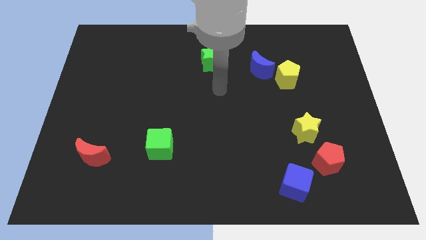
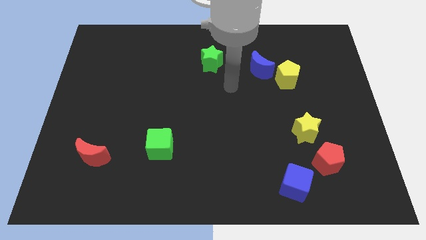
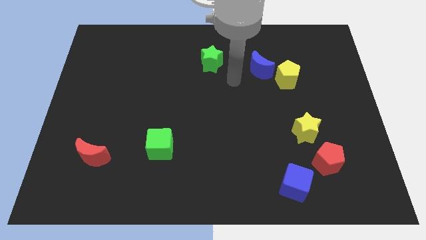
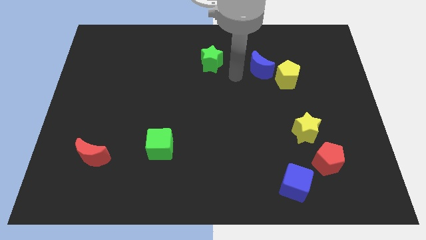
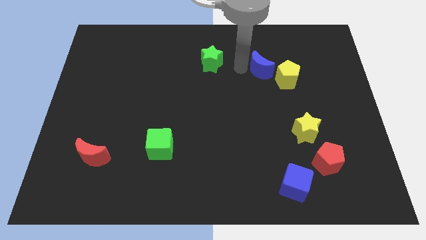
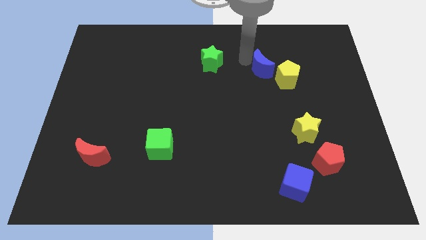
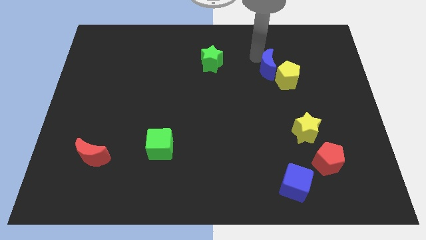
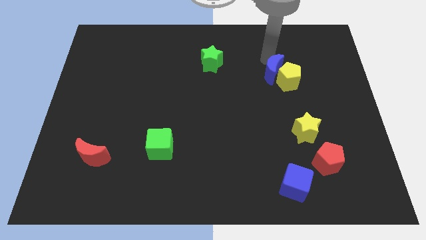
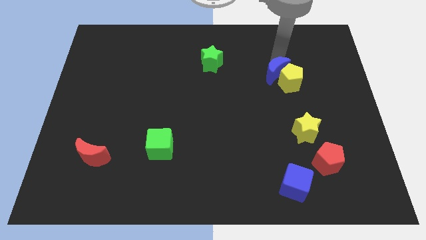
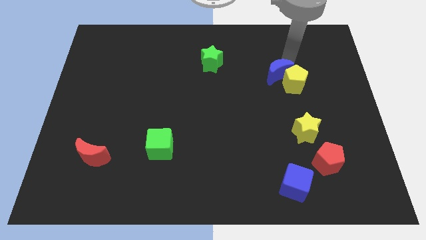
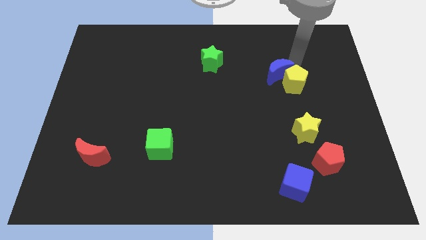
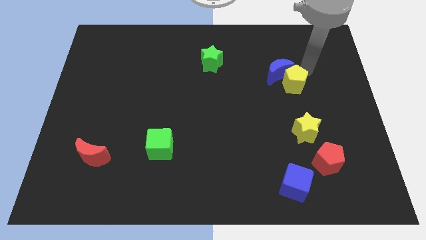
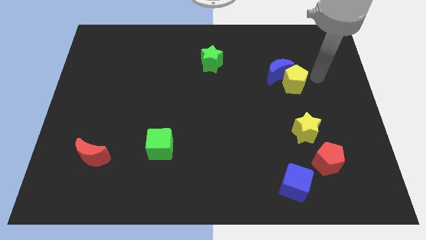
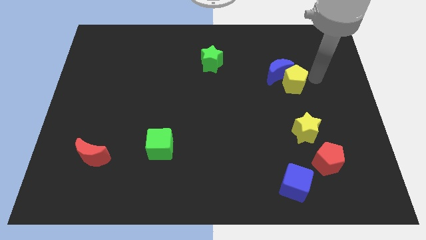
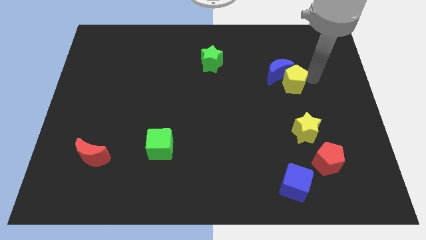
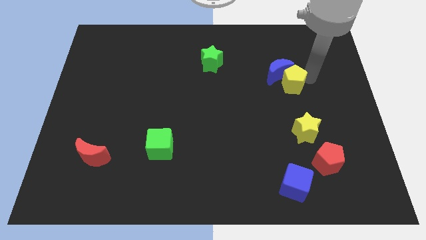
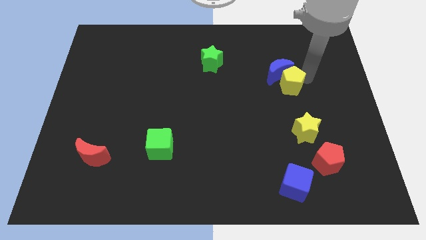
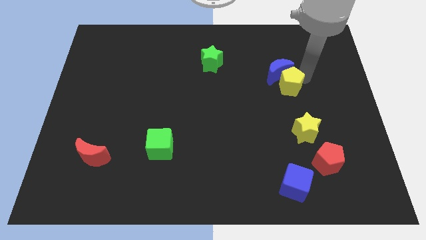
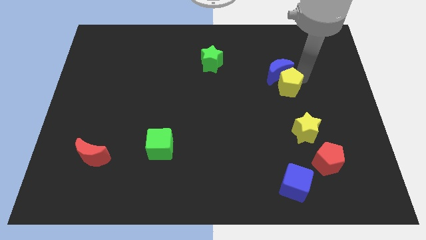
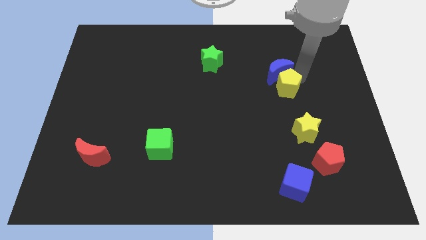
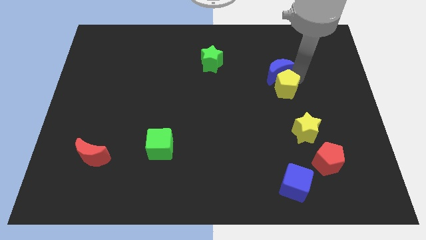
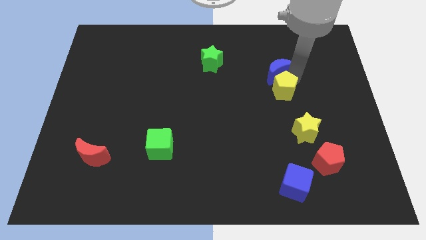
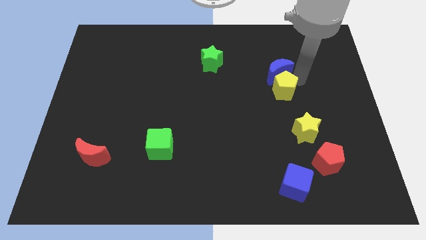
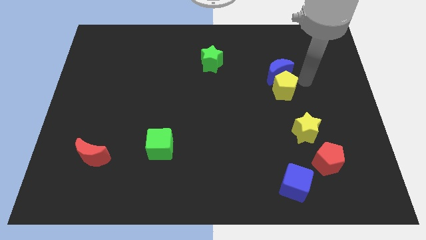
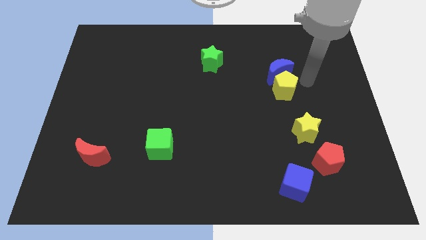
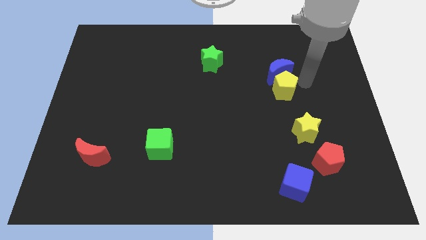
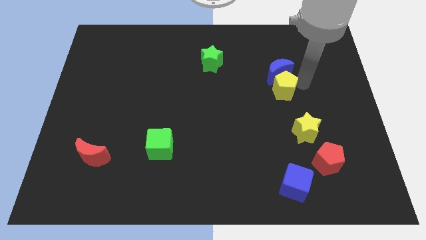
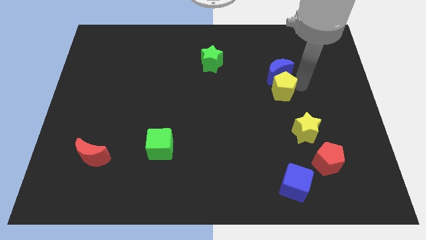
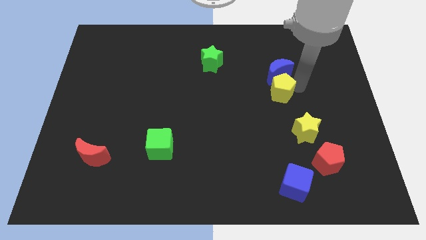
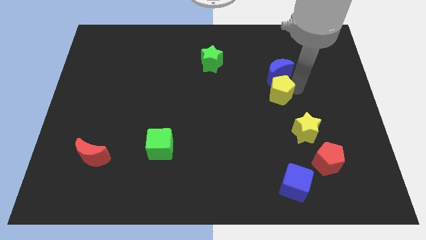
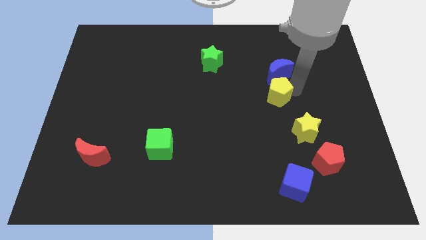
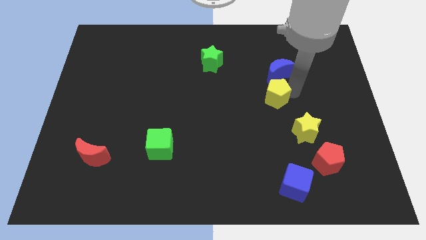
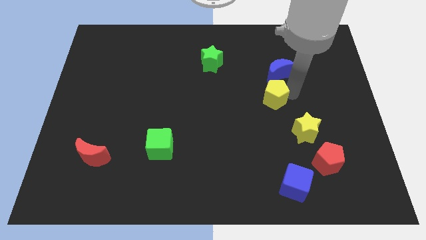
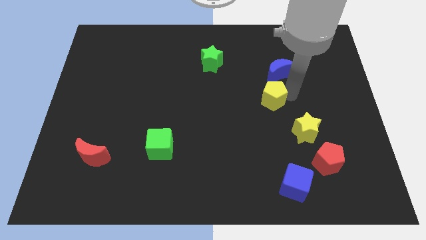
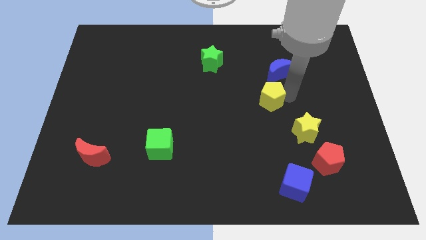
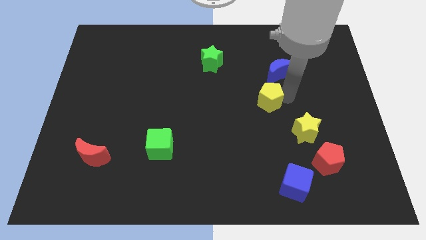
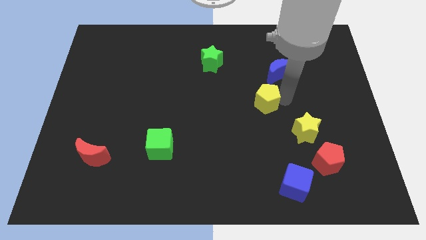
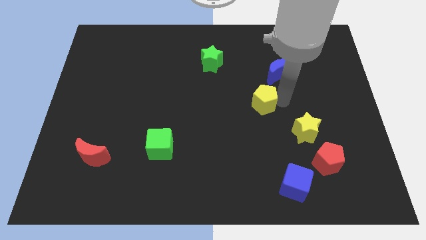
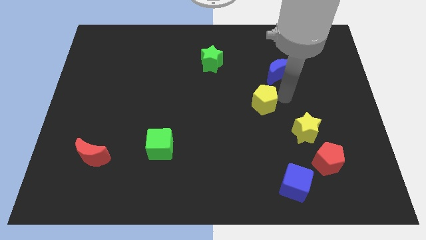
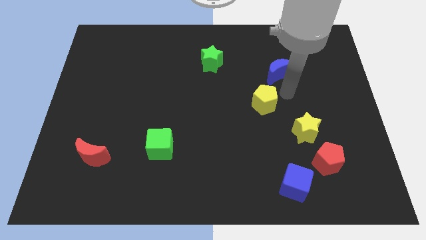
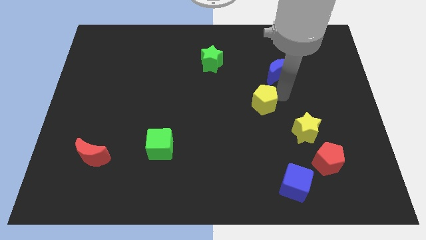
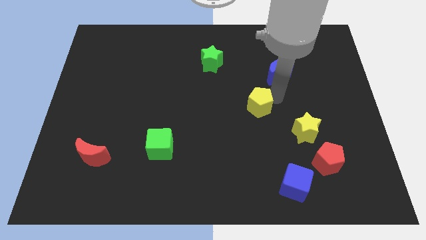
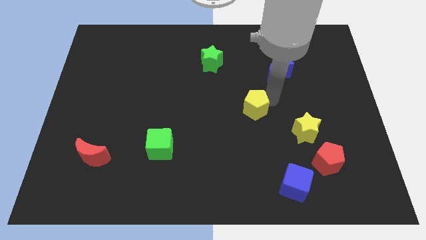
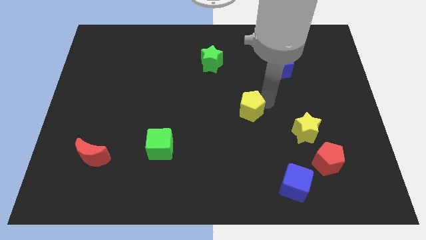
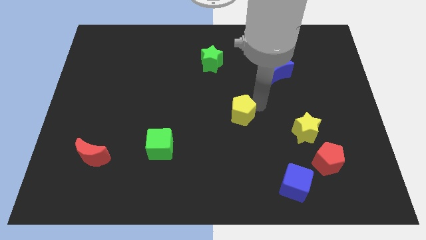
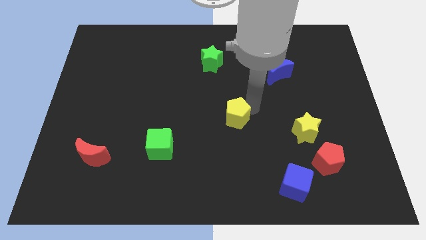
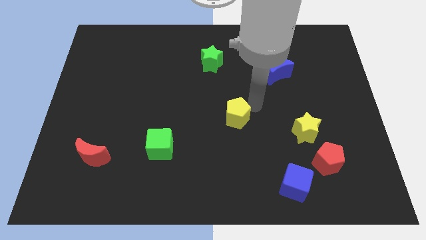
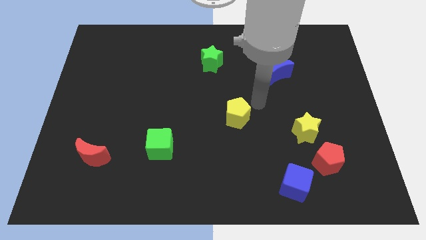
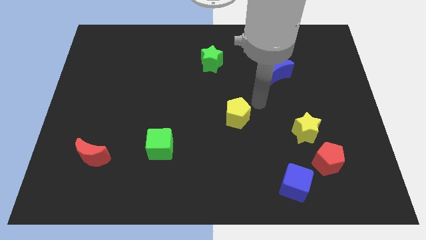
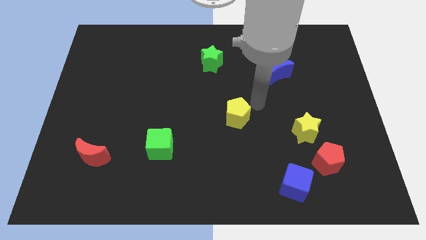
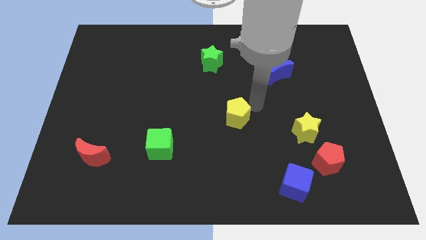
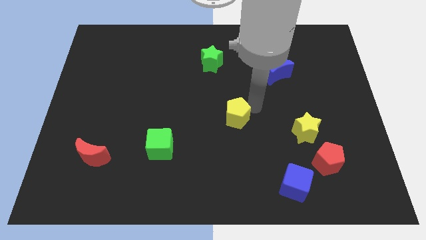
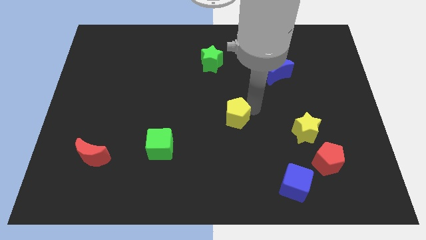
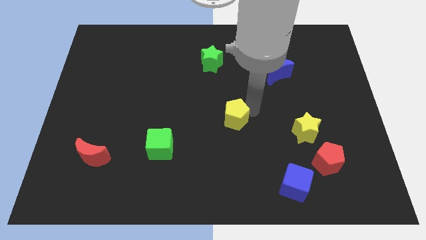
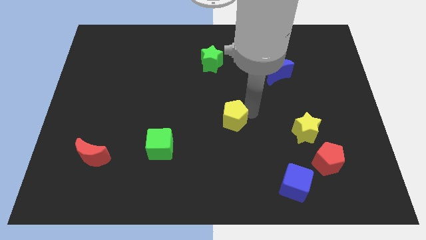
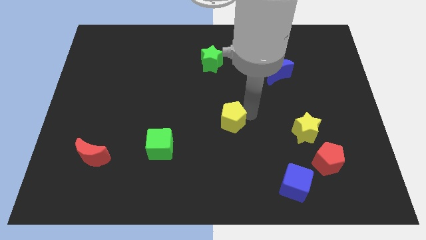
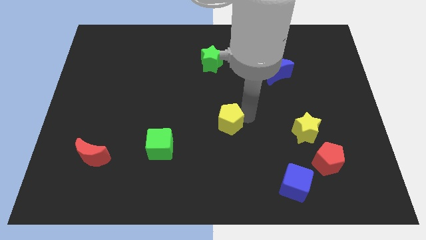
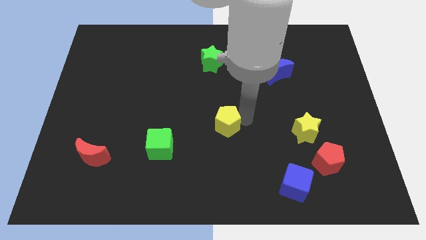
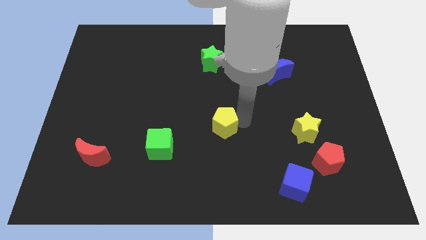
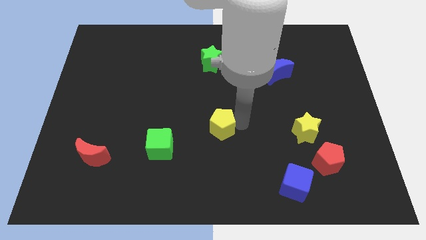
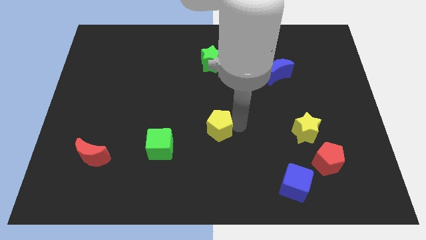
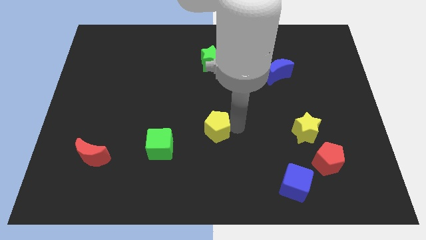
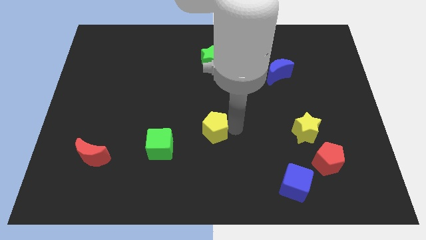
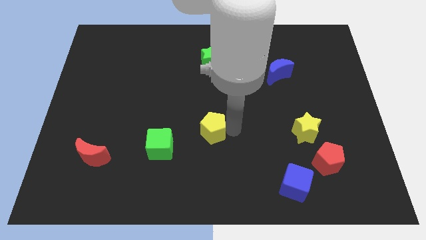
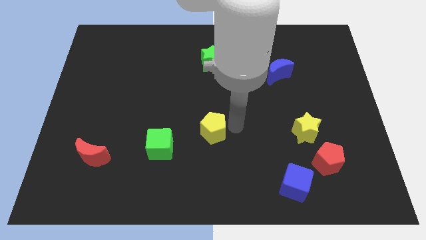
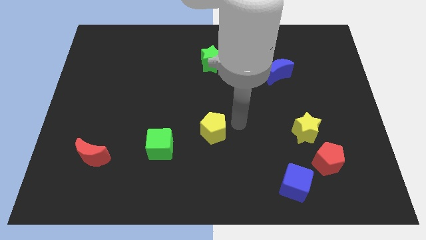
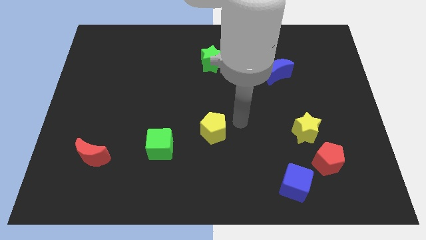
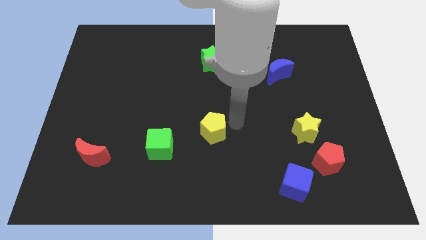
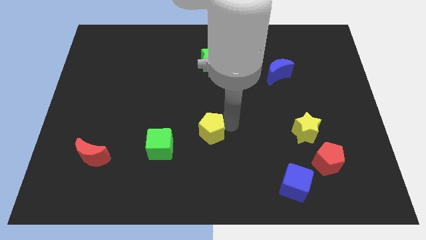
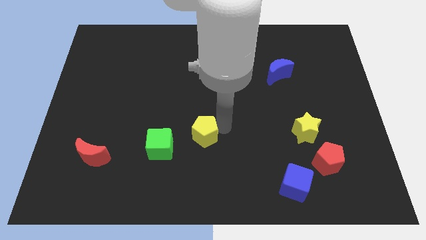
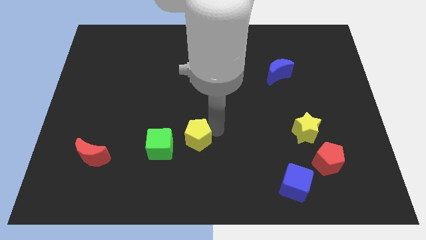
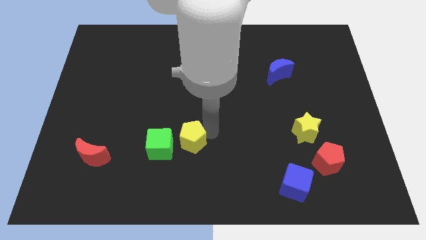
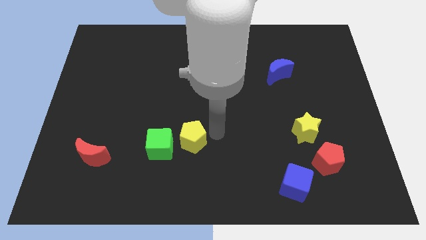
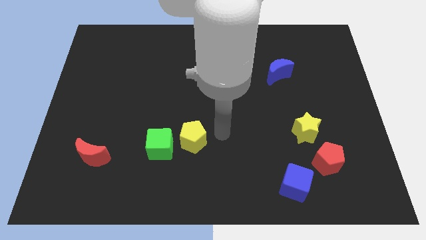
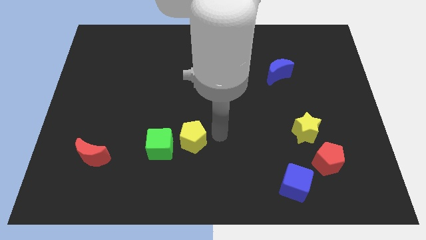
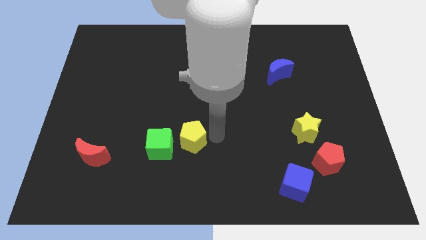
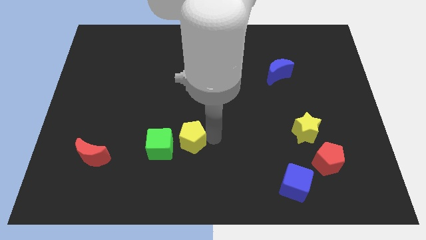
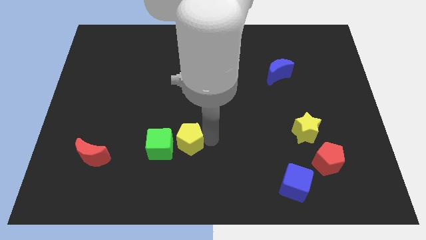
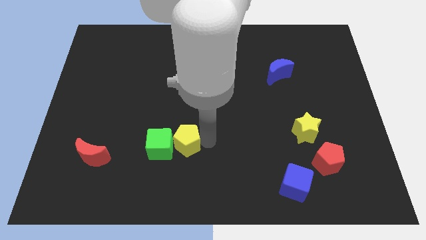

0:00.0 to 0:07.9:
put the yellow pentagon towards the green cube
